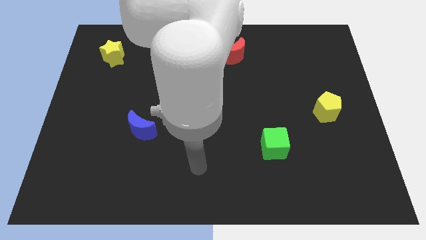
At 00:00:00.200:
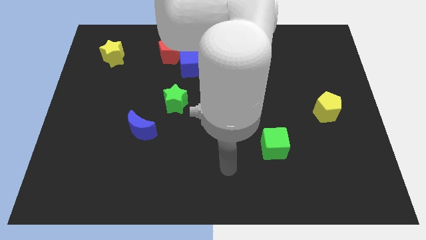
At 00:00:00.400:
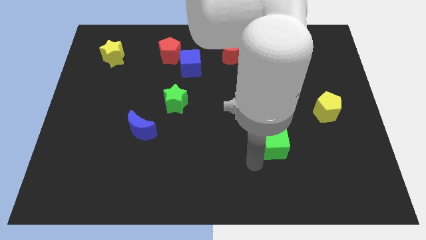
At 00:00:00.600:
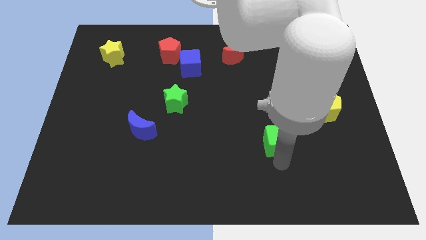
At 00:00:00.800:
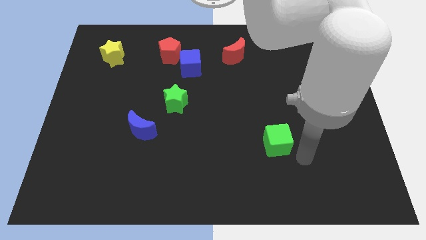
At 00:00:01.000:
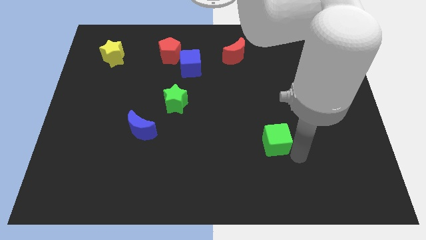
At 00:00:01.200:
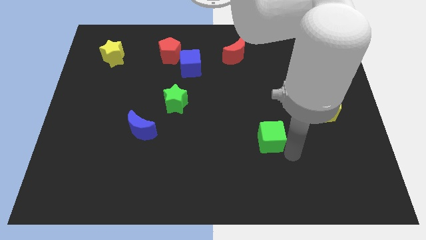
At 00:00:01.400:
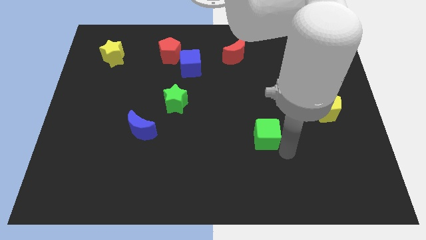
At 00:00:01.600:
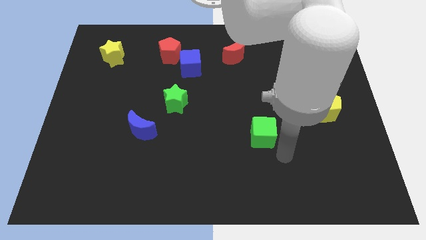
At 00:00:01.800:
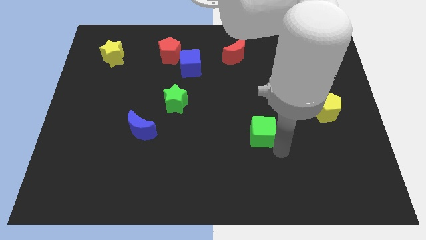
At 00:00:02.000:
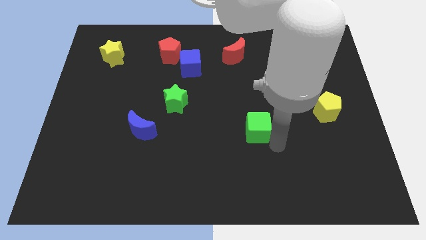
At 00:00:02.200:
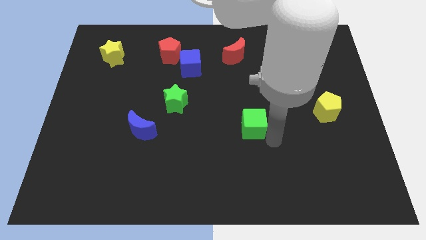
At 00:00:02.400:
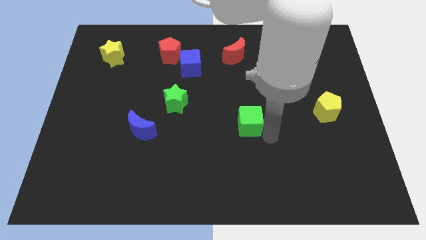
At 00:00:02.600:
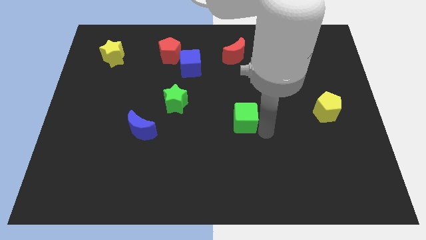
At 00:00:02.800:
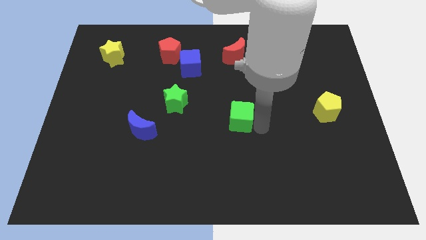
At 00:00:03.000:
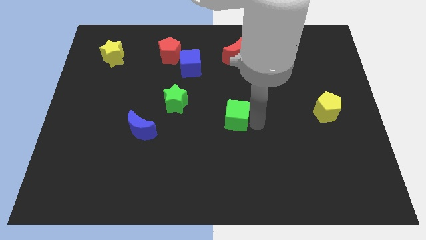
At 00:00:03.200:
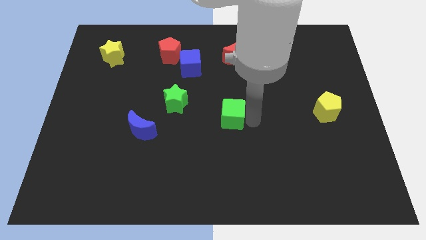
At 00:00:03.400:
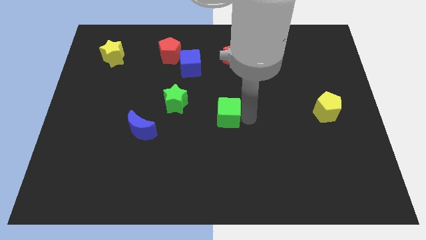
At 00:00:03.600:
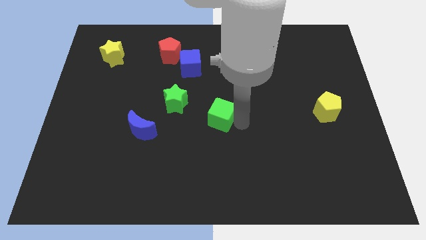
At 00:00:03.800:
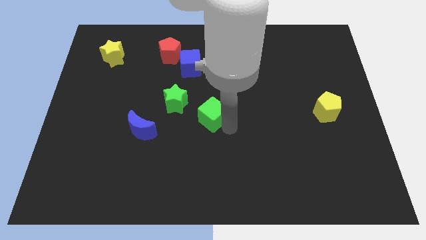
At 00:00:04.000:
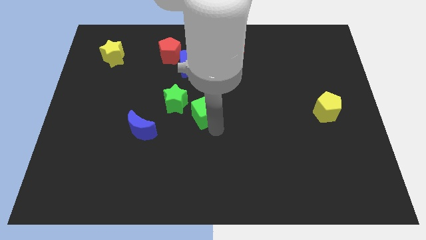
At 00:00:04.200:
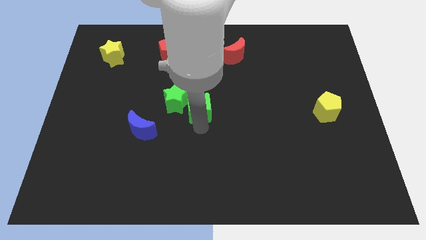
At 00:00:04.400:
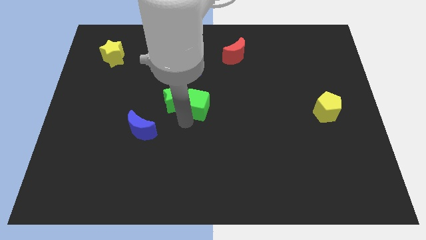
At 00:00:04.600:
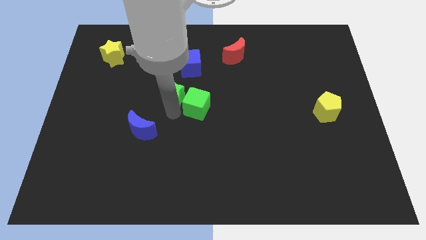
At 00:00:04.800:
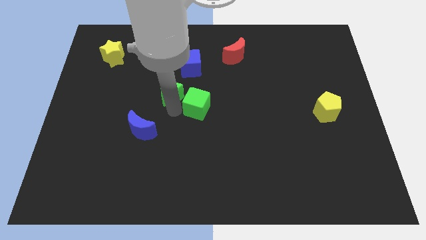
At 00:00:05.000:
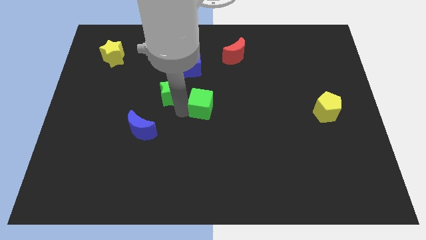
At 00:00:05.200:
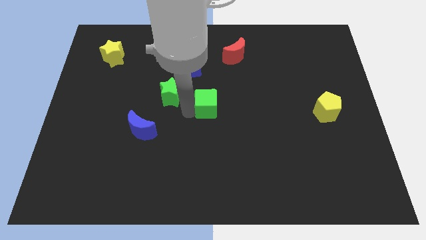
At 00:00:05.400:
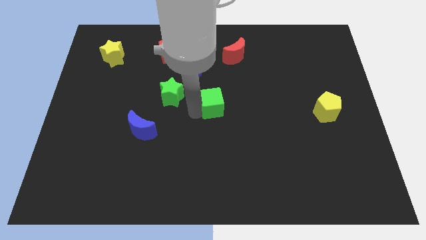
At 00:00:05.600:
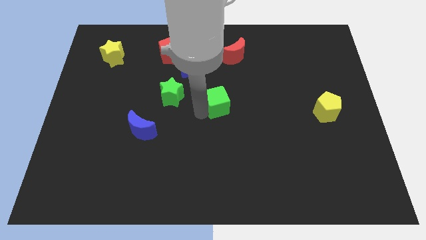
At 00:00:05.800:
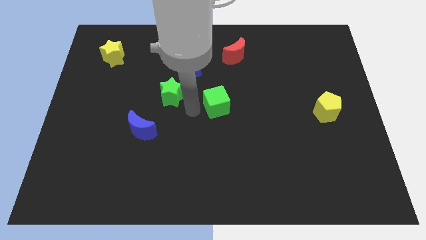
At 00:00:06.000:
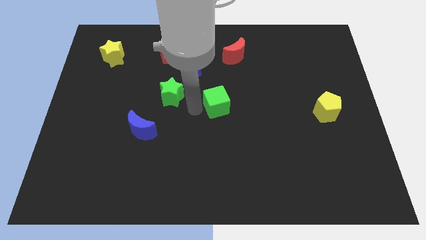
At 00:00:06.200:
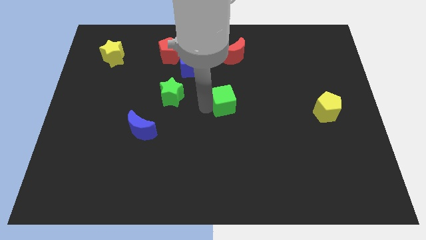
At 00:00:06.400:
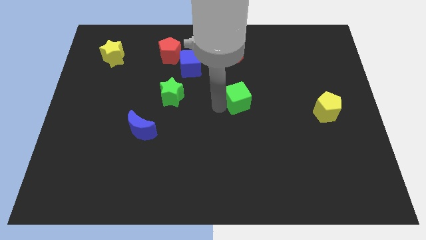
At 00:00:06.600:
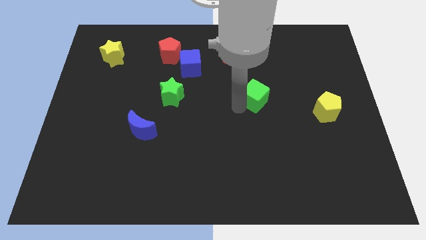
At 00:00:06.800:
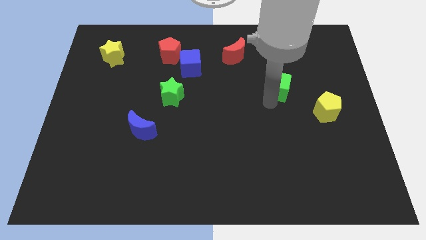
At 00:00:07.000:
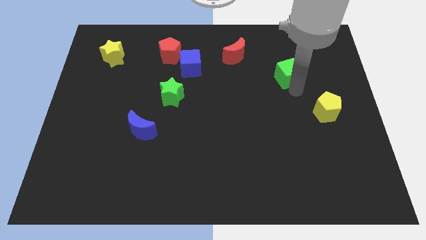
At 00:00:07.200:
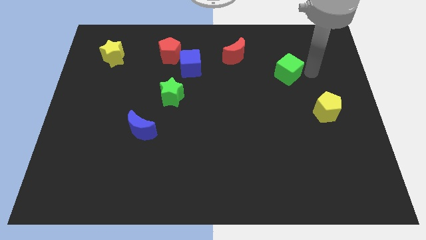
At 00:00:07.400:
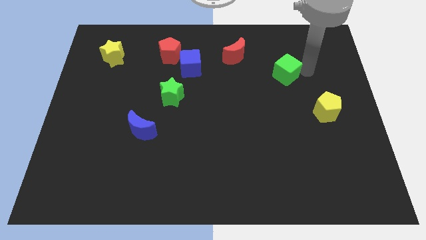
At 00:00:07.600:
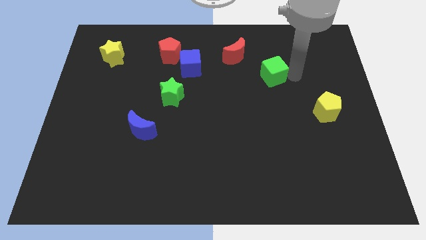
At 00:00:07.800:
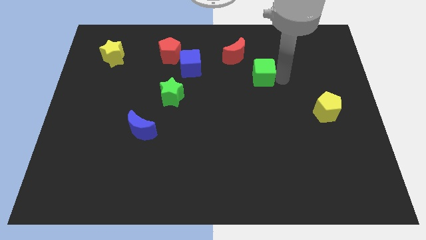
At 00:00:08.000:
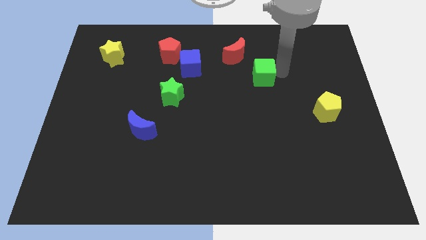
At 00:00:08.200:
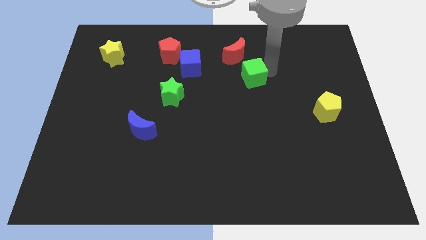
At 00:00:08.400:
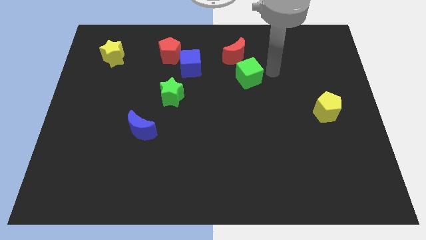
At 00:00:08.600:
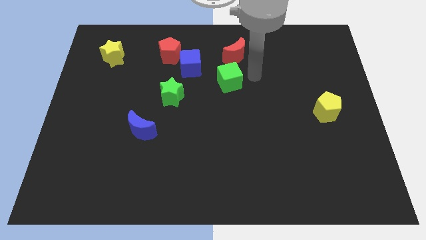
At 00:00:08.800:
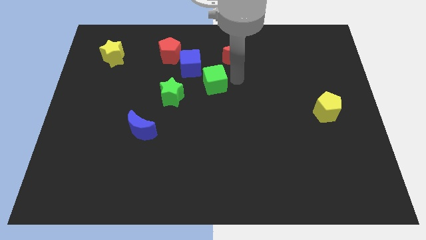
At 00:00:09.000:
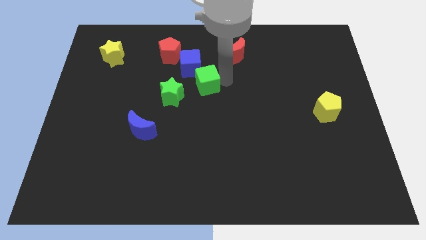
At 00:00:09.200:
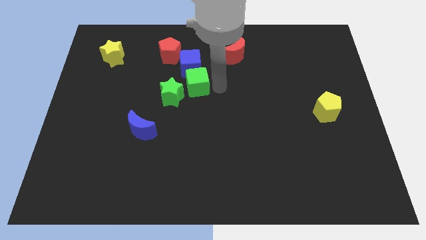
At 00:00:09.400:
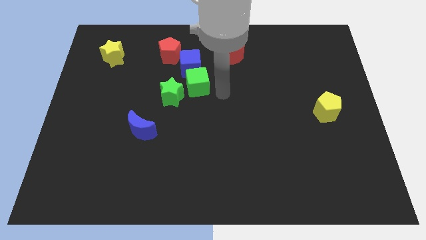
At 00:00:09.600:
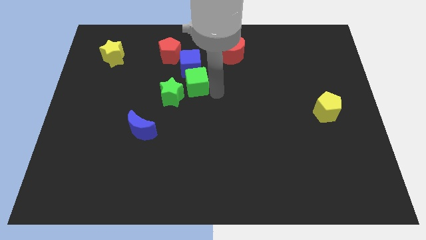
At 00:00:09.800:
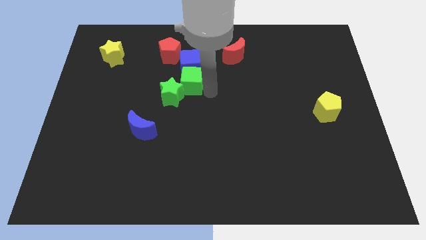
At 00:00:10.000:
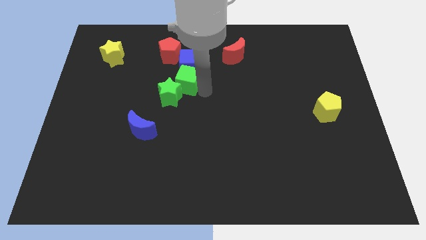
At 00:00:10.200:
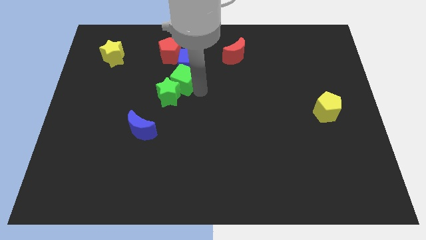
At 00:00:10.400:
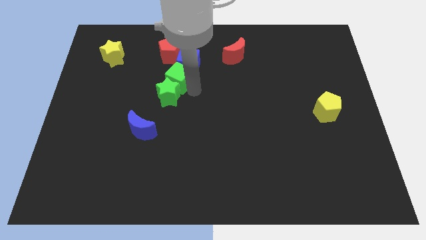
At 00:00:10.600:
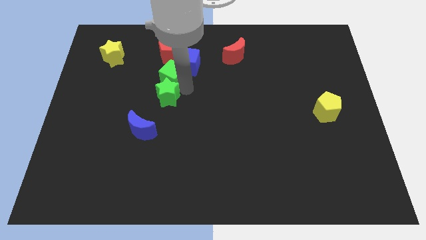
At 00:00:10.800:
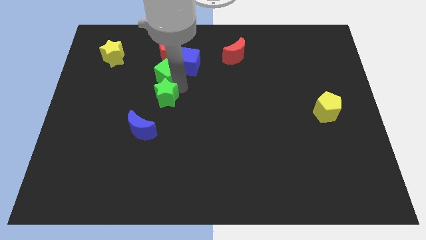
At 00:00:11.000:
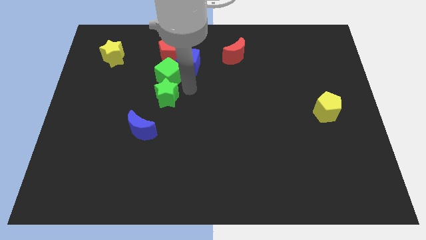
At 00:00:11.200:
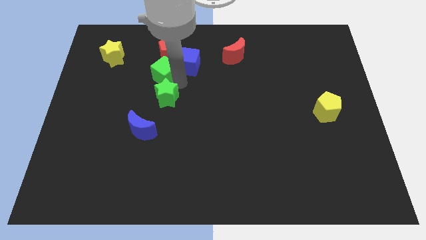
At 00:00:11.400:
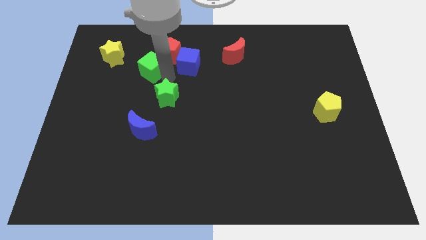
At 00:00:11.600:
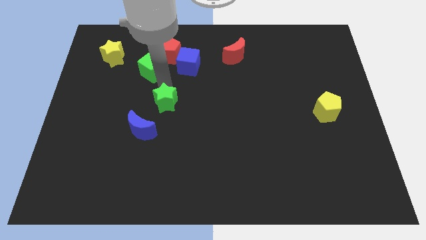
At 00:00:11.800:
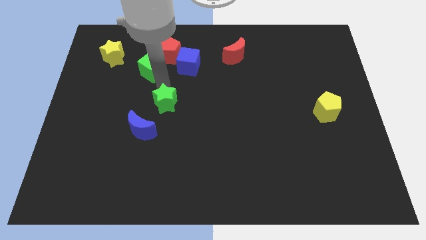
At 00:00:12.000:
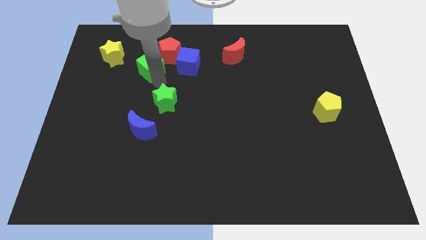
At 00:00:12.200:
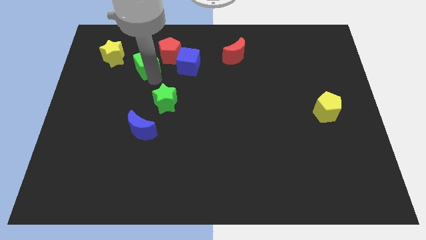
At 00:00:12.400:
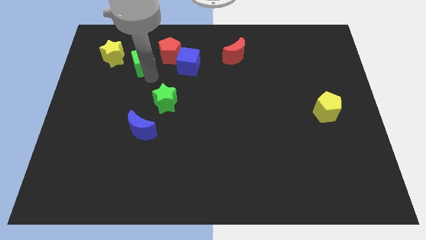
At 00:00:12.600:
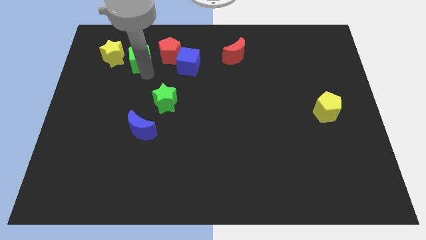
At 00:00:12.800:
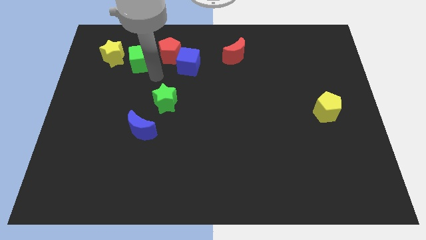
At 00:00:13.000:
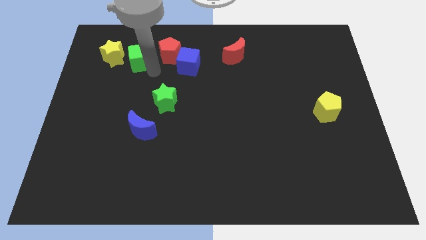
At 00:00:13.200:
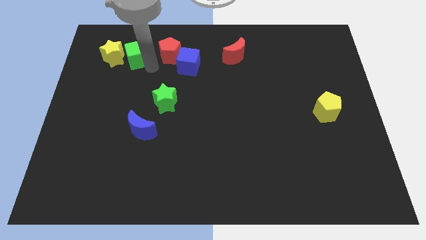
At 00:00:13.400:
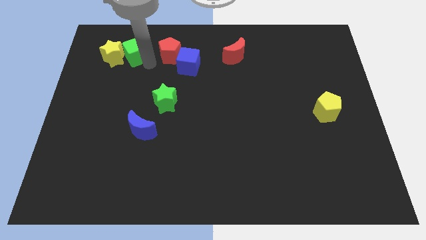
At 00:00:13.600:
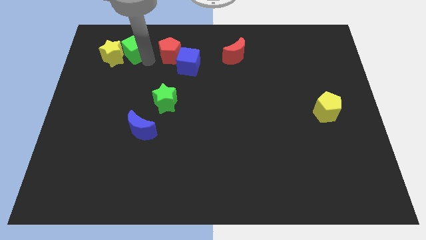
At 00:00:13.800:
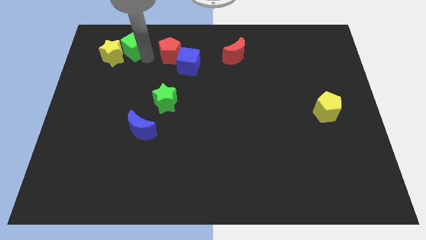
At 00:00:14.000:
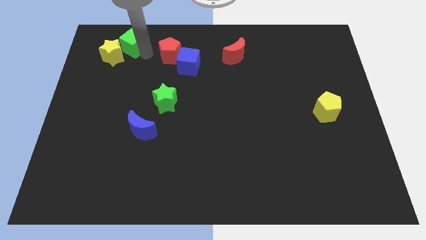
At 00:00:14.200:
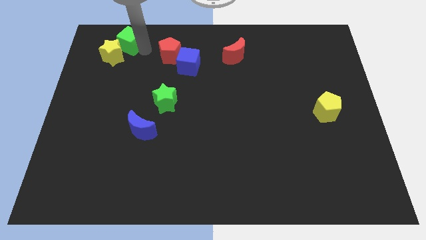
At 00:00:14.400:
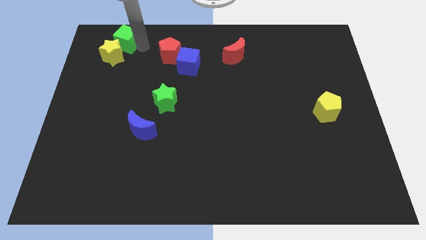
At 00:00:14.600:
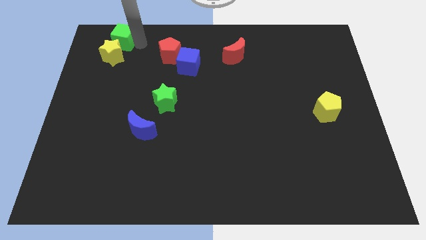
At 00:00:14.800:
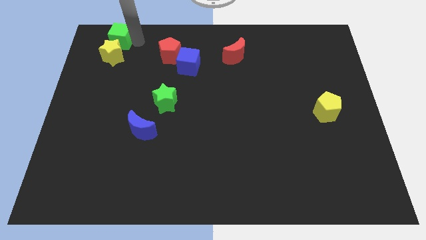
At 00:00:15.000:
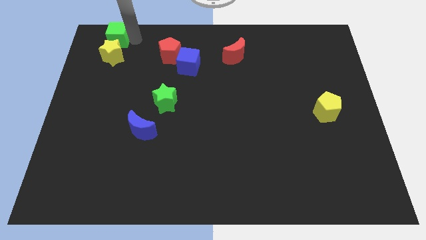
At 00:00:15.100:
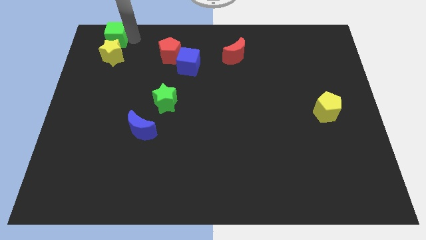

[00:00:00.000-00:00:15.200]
slide the green cube to the top left
